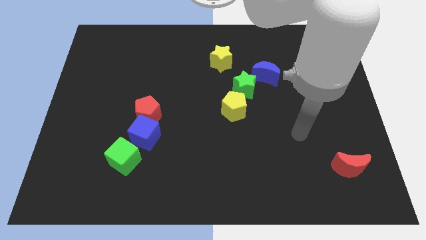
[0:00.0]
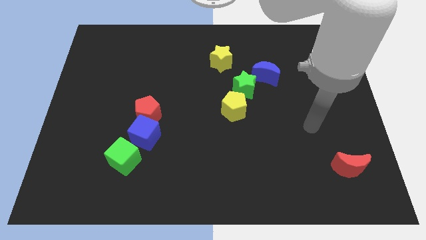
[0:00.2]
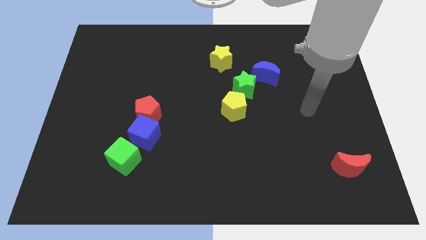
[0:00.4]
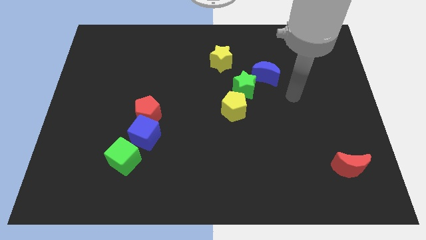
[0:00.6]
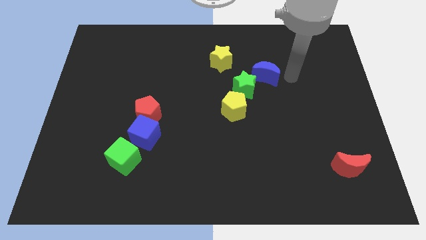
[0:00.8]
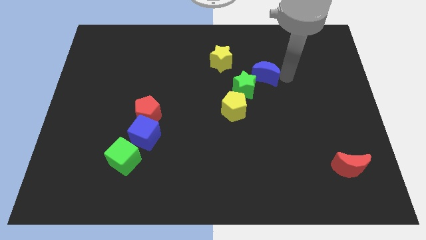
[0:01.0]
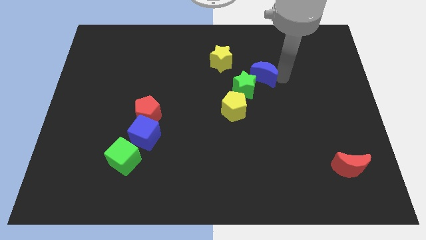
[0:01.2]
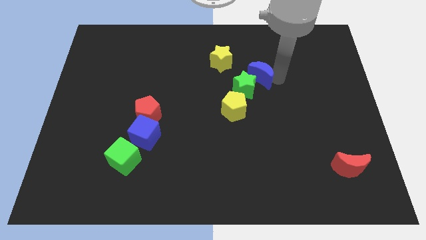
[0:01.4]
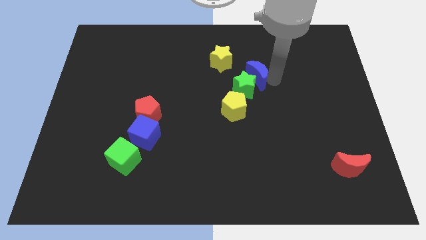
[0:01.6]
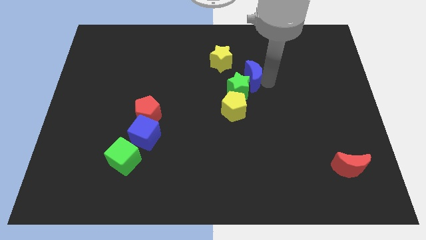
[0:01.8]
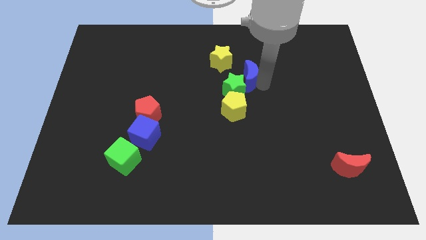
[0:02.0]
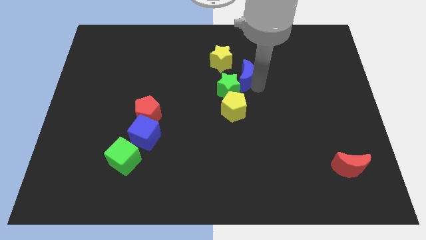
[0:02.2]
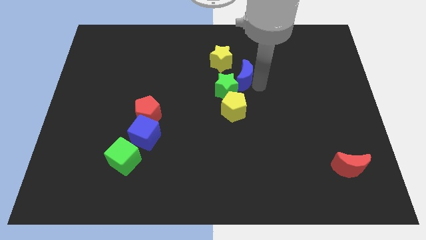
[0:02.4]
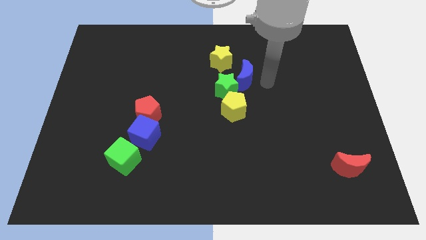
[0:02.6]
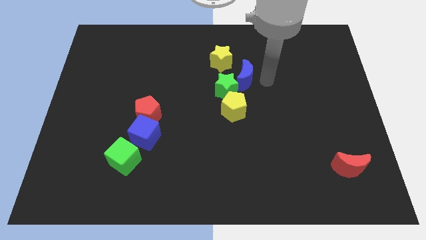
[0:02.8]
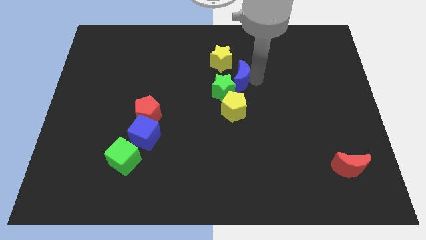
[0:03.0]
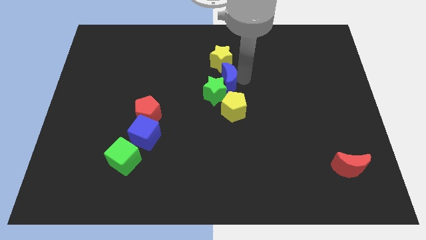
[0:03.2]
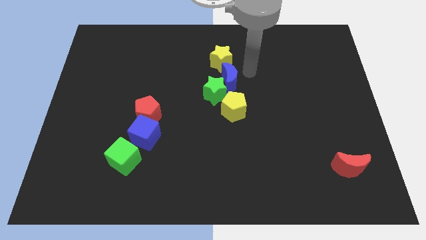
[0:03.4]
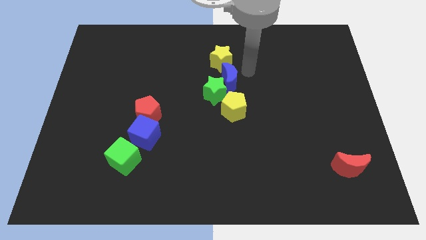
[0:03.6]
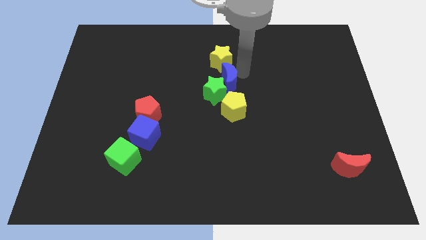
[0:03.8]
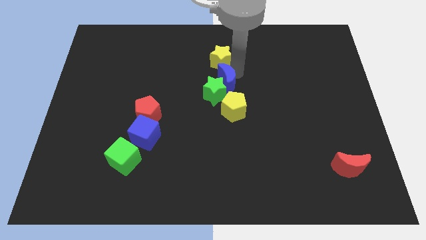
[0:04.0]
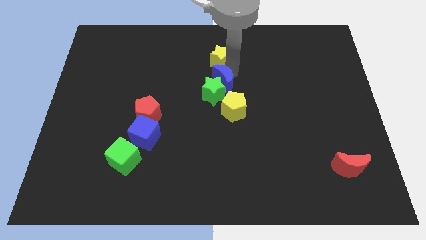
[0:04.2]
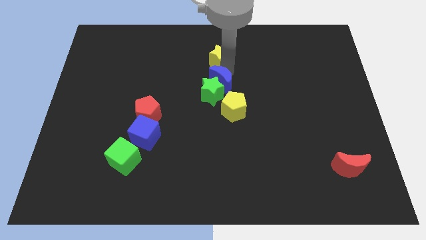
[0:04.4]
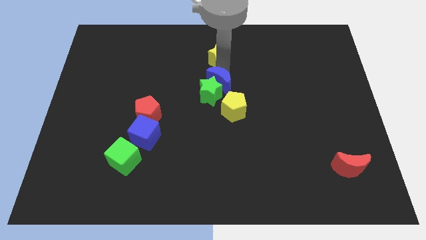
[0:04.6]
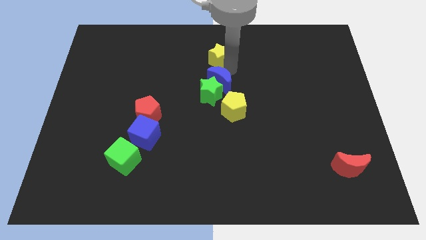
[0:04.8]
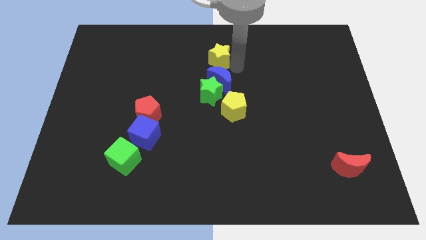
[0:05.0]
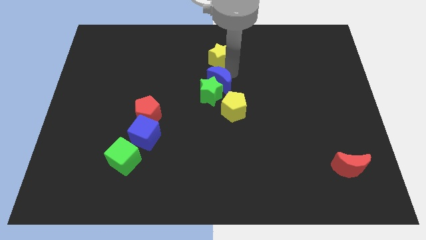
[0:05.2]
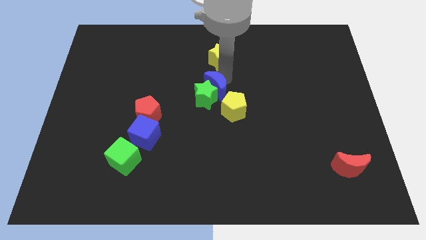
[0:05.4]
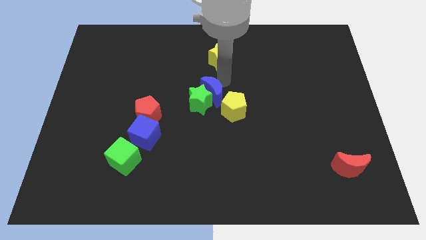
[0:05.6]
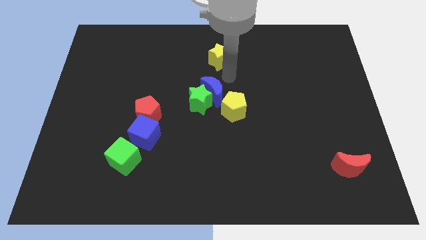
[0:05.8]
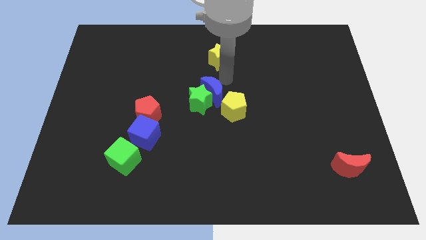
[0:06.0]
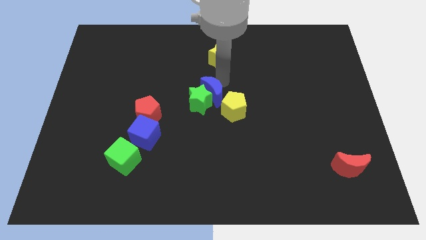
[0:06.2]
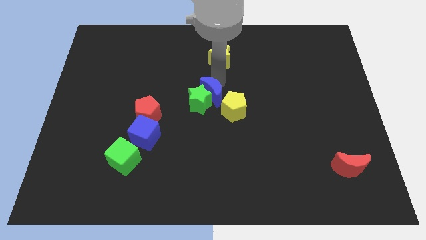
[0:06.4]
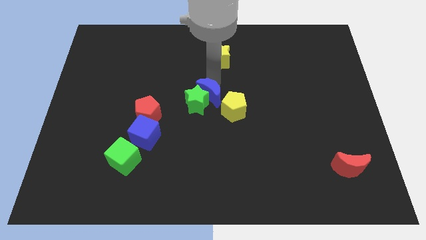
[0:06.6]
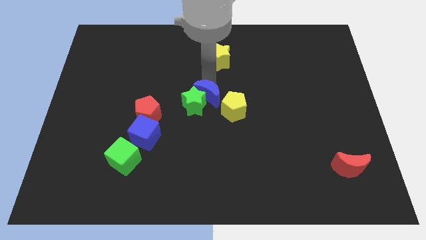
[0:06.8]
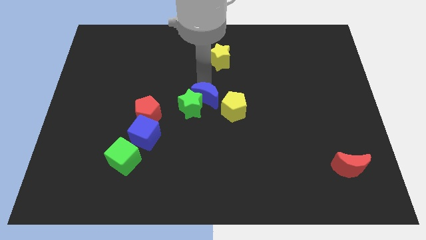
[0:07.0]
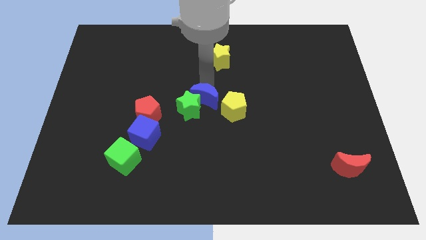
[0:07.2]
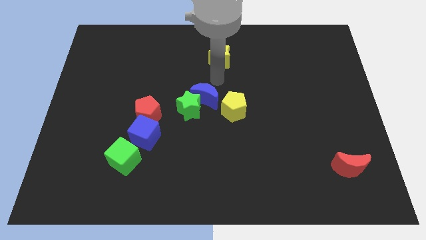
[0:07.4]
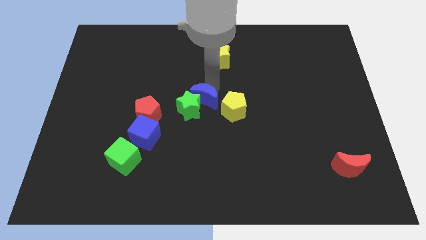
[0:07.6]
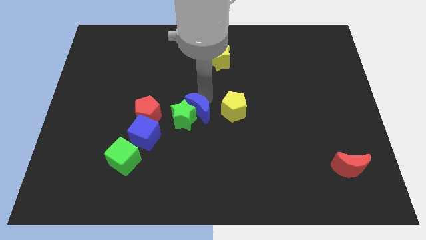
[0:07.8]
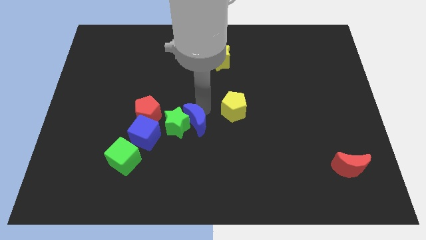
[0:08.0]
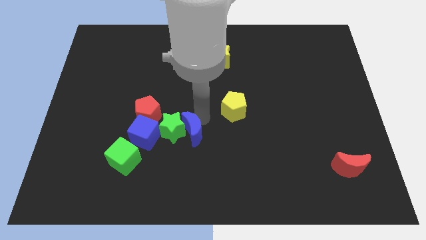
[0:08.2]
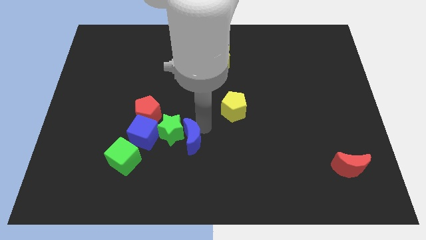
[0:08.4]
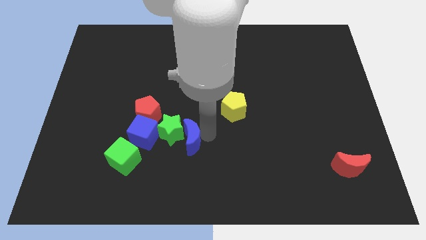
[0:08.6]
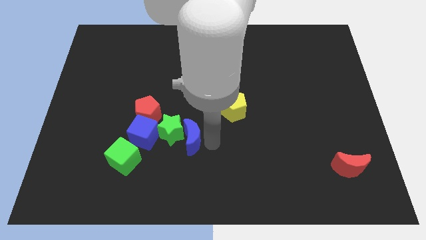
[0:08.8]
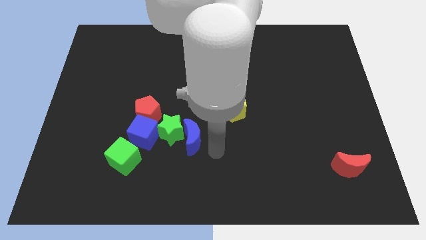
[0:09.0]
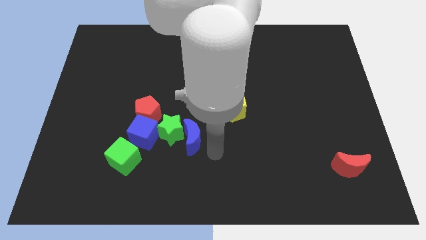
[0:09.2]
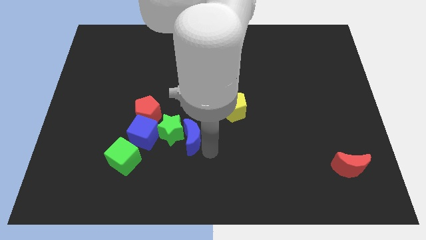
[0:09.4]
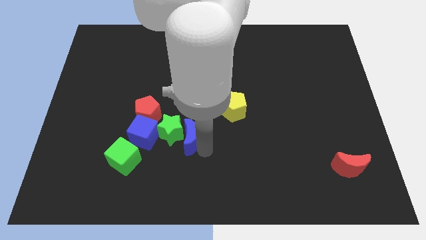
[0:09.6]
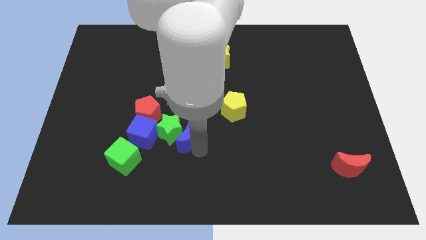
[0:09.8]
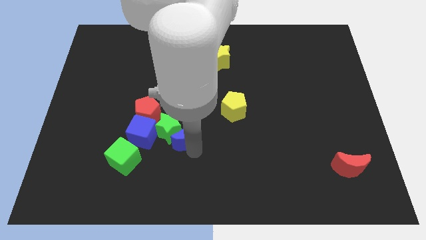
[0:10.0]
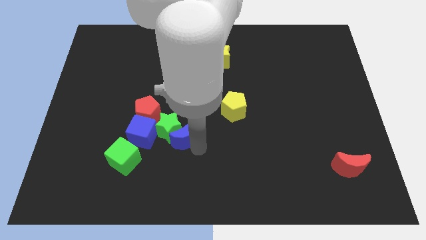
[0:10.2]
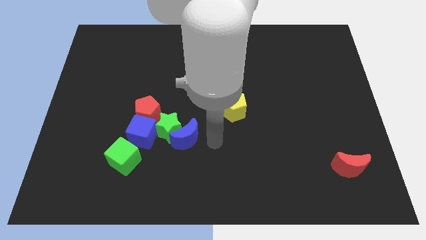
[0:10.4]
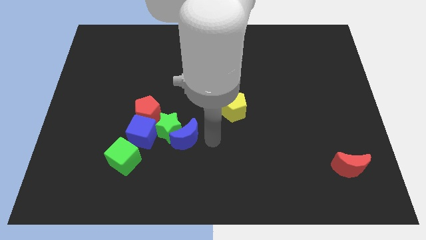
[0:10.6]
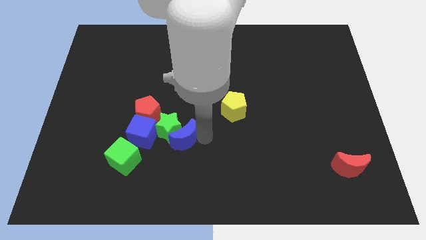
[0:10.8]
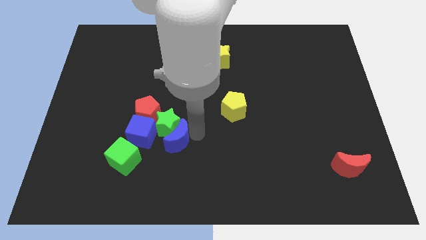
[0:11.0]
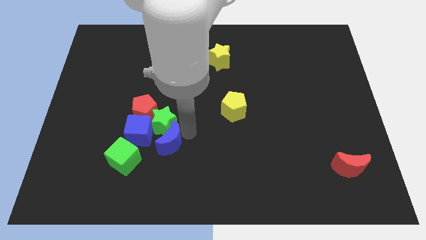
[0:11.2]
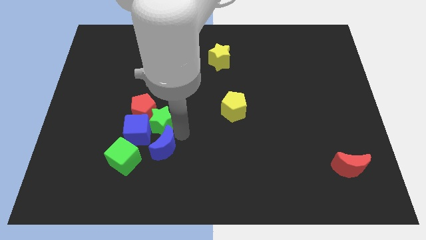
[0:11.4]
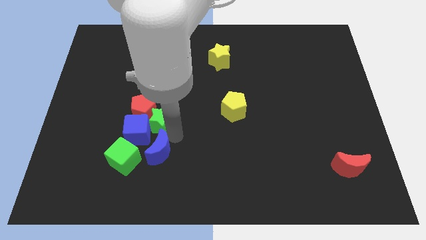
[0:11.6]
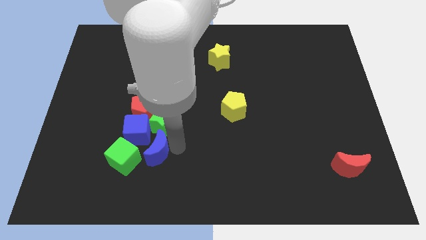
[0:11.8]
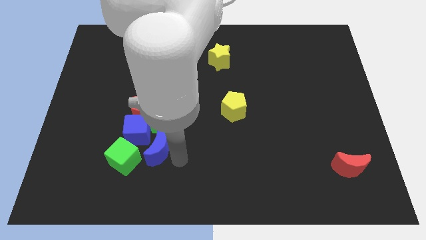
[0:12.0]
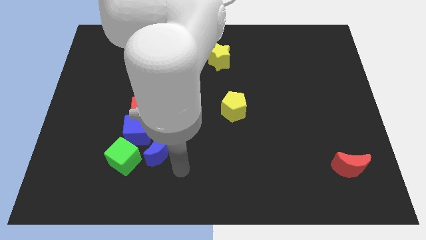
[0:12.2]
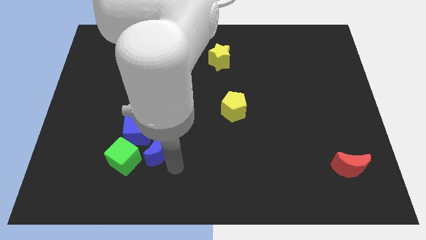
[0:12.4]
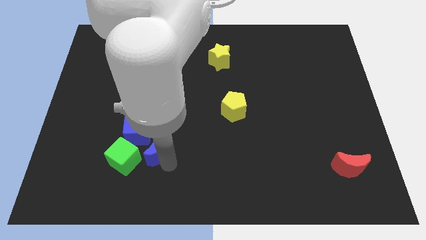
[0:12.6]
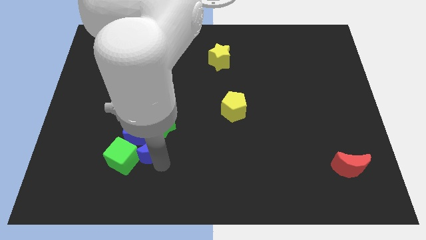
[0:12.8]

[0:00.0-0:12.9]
move the blue moon close to the blue cube

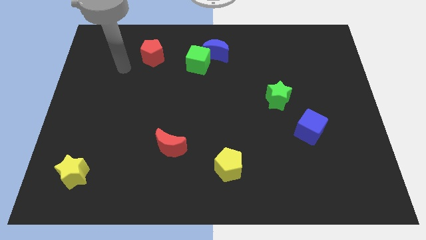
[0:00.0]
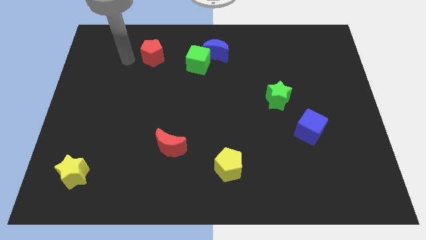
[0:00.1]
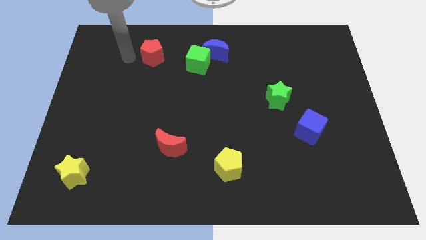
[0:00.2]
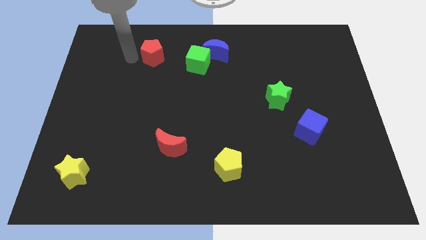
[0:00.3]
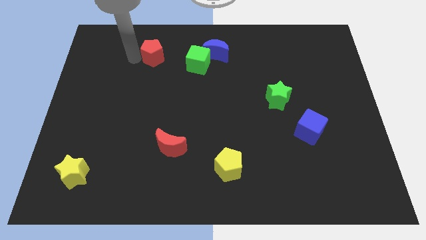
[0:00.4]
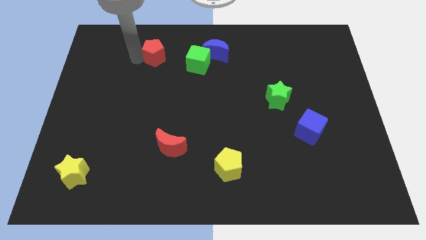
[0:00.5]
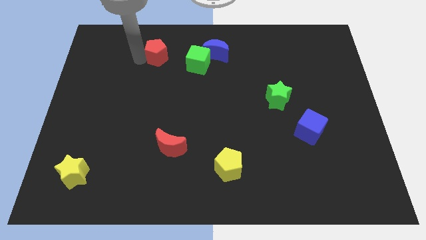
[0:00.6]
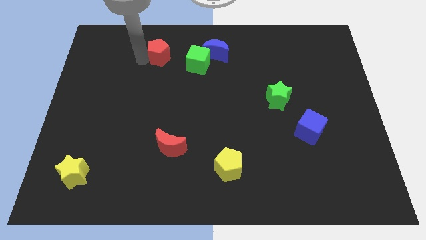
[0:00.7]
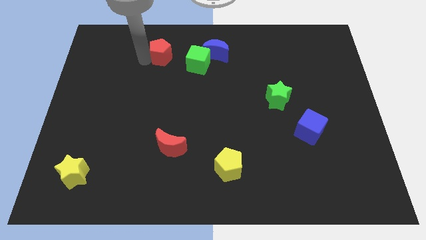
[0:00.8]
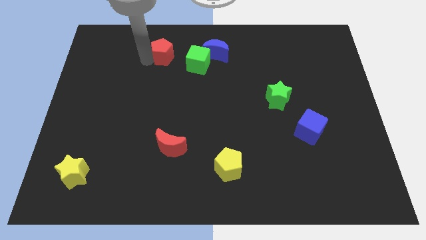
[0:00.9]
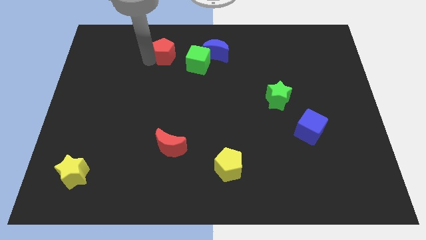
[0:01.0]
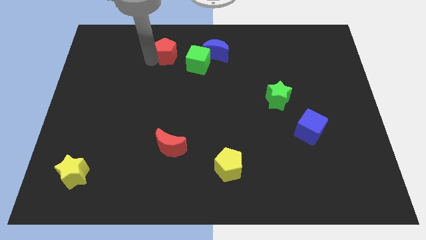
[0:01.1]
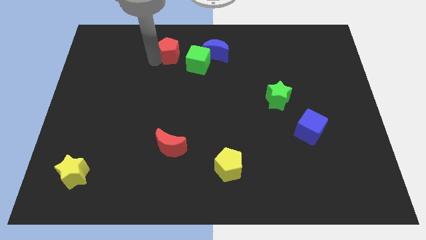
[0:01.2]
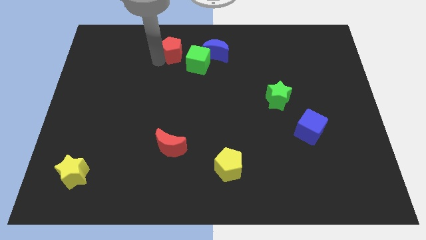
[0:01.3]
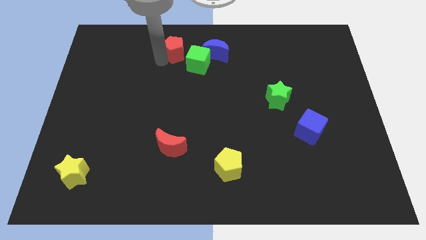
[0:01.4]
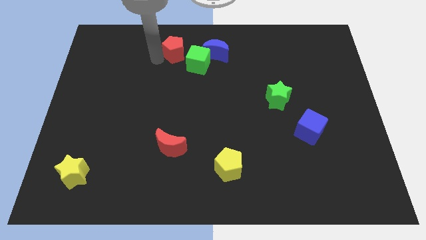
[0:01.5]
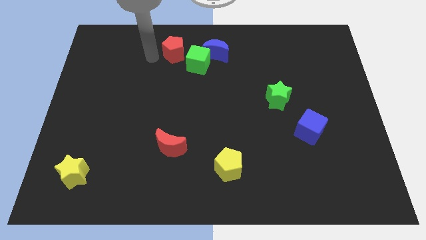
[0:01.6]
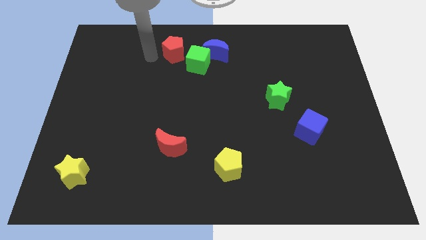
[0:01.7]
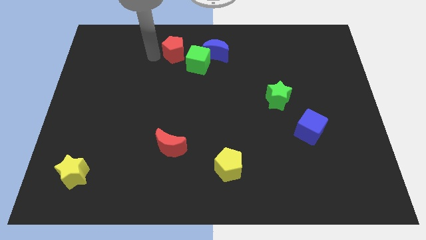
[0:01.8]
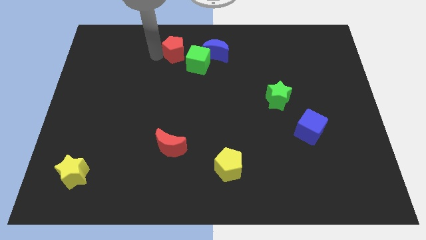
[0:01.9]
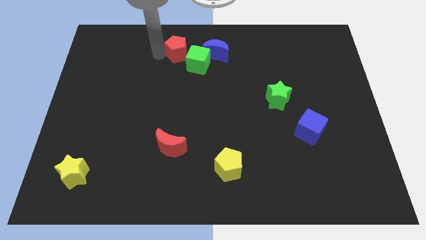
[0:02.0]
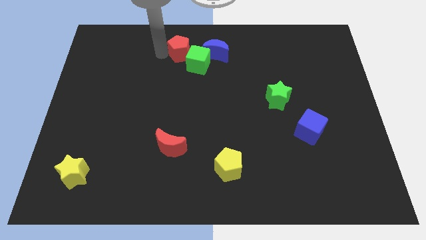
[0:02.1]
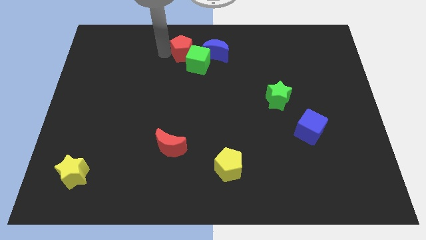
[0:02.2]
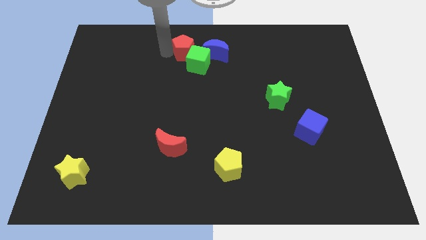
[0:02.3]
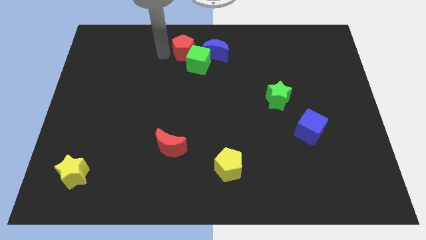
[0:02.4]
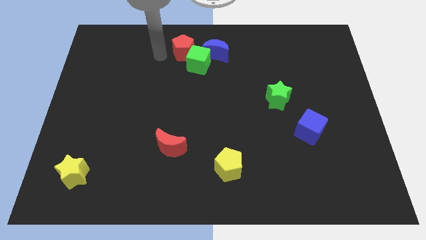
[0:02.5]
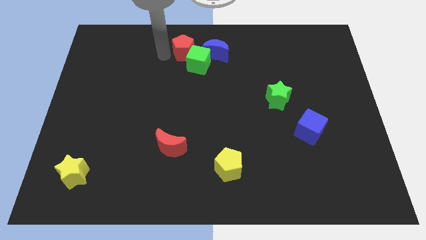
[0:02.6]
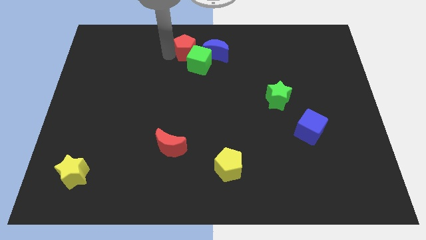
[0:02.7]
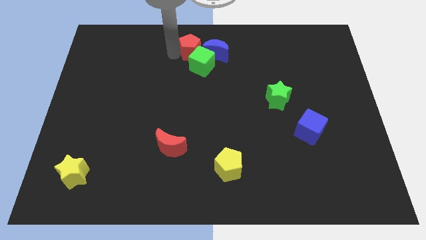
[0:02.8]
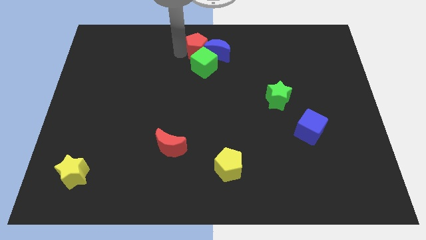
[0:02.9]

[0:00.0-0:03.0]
put the red pentagon next to the blue moon
